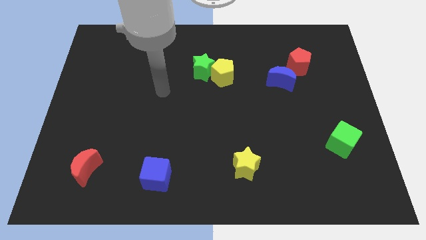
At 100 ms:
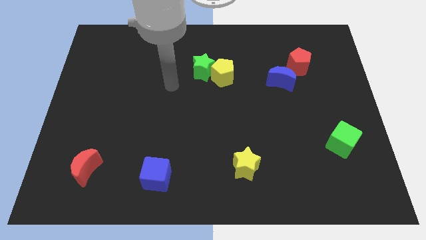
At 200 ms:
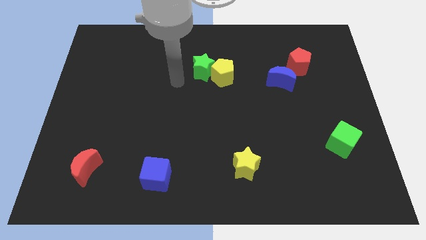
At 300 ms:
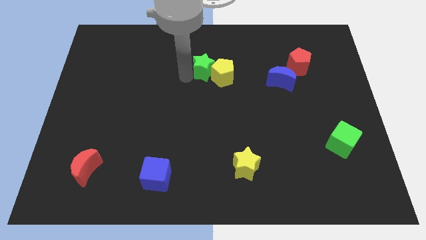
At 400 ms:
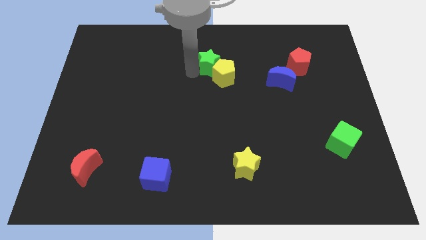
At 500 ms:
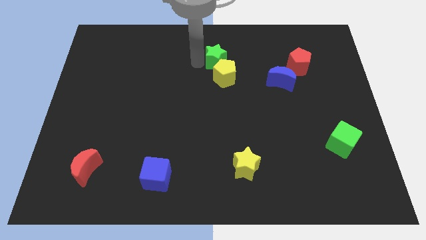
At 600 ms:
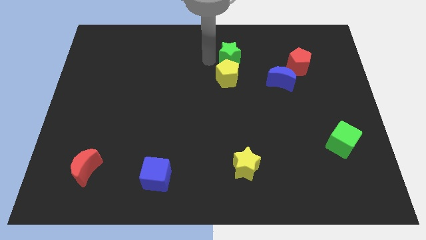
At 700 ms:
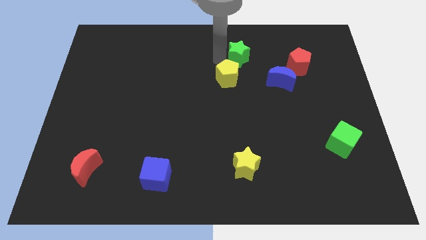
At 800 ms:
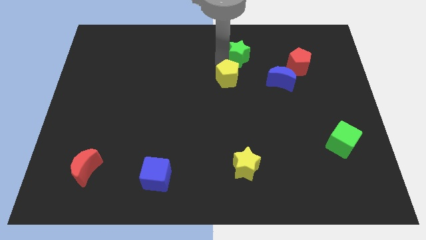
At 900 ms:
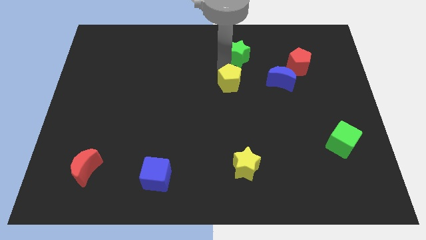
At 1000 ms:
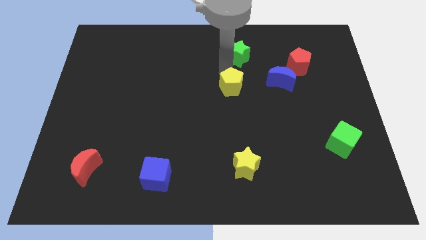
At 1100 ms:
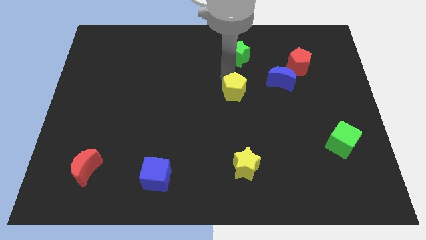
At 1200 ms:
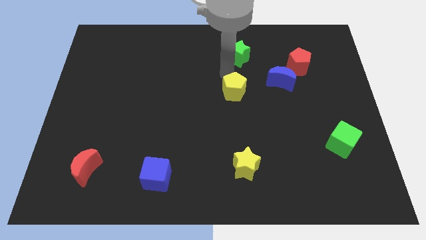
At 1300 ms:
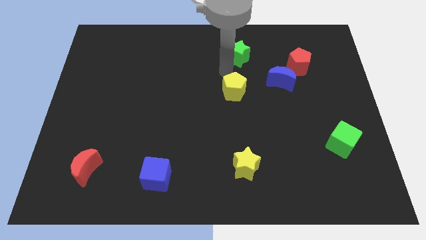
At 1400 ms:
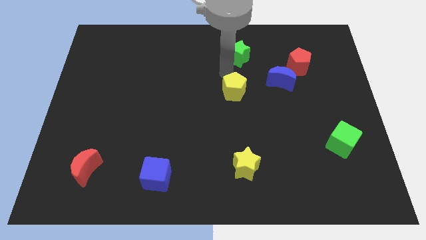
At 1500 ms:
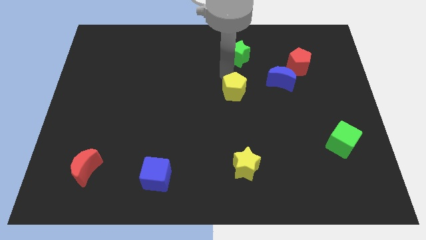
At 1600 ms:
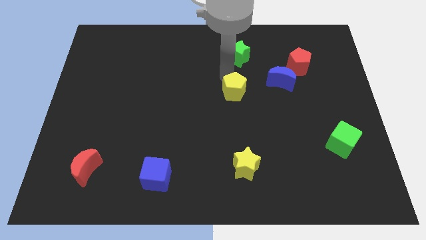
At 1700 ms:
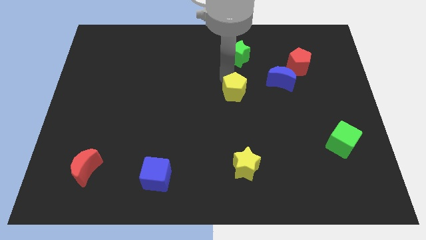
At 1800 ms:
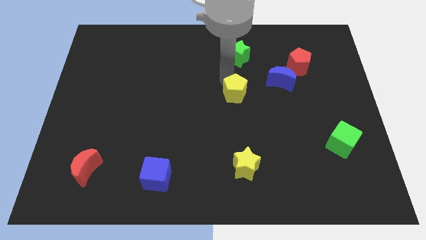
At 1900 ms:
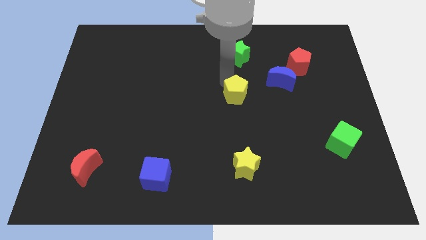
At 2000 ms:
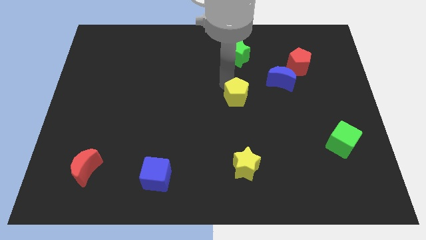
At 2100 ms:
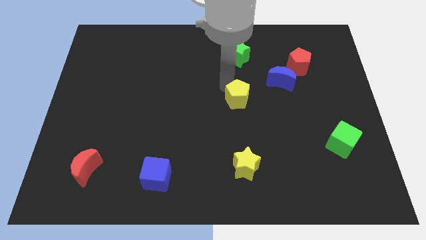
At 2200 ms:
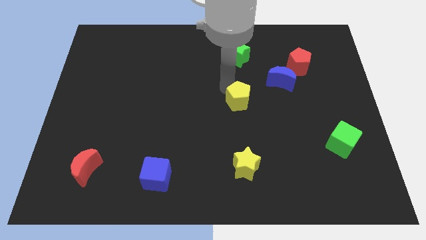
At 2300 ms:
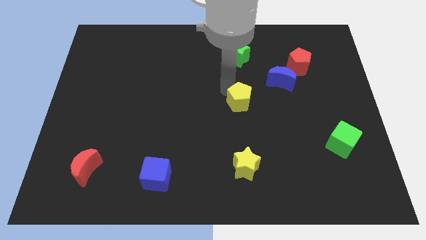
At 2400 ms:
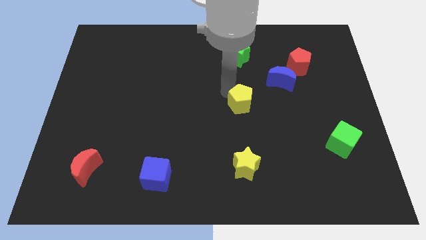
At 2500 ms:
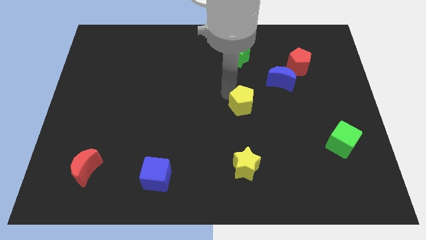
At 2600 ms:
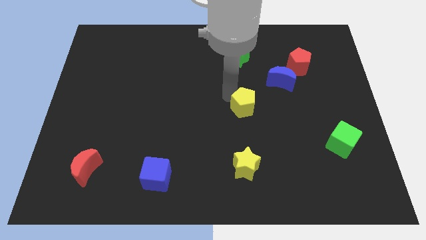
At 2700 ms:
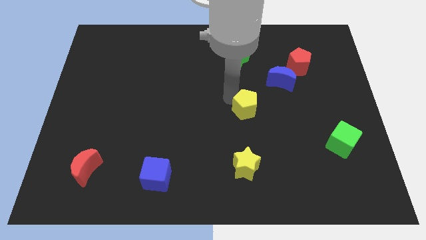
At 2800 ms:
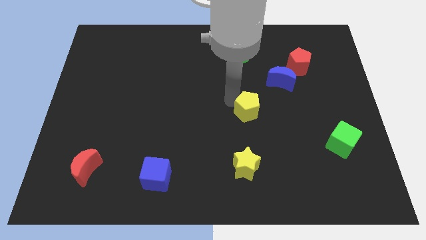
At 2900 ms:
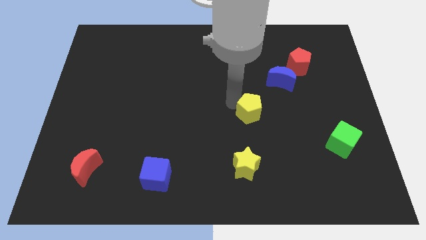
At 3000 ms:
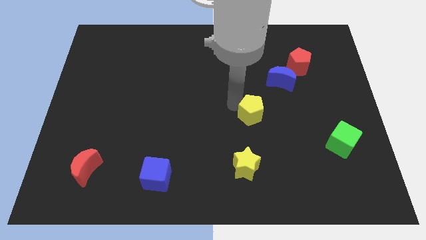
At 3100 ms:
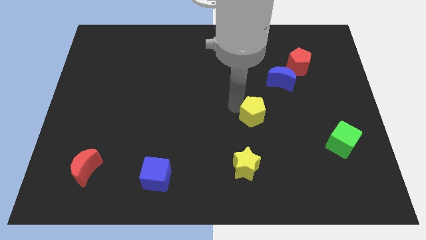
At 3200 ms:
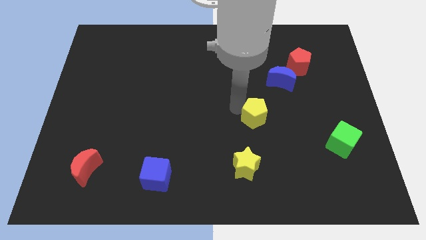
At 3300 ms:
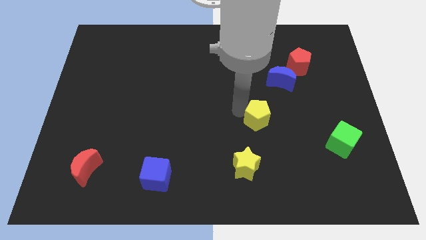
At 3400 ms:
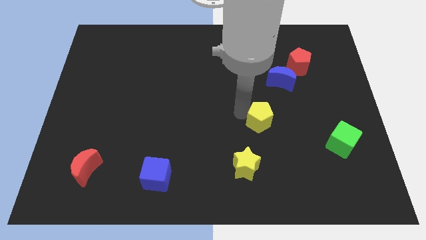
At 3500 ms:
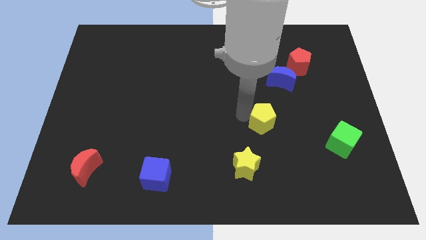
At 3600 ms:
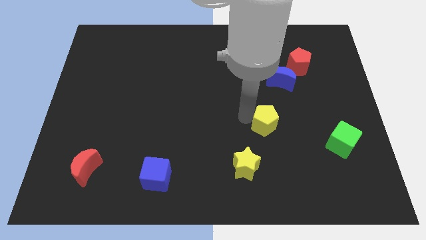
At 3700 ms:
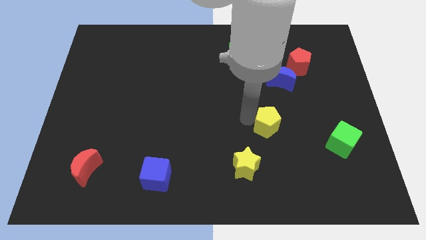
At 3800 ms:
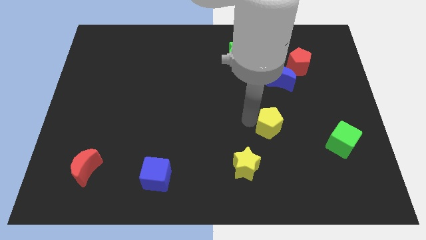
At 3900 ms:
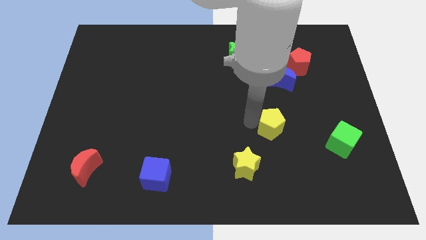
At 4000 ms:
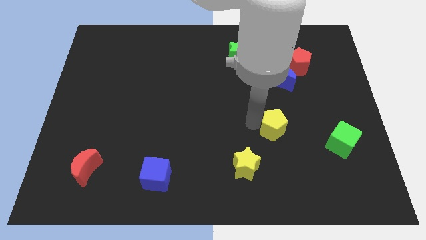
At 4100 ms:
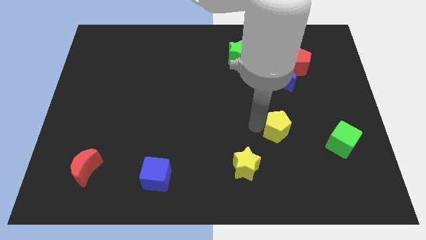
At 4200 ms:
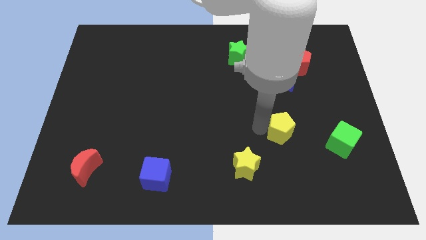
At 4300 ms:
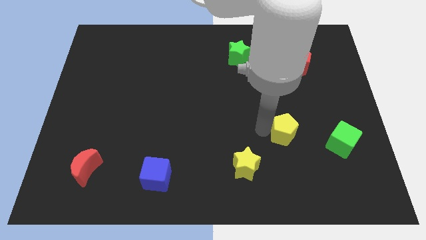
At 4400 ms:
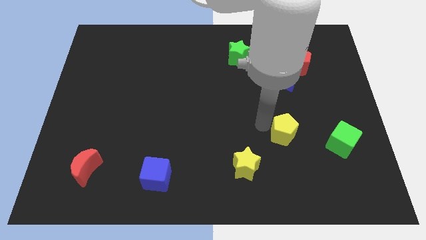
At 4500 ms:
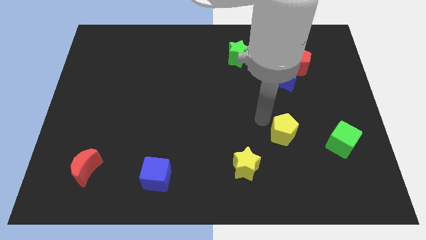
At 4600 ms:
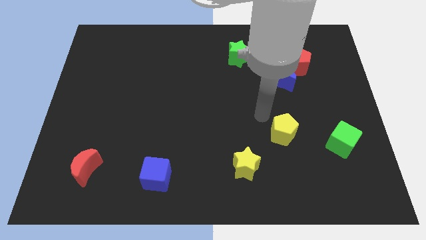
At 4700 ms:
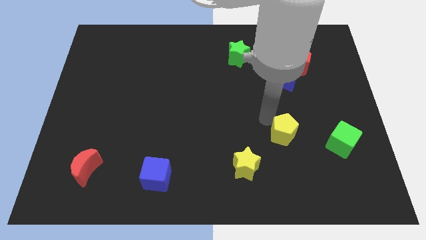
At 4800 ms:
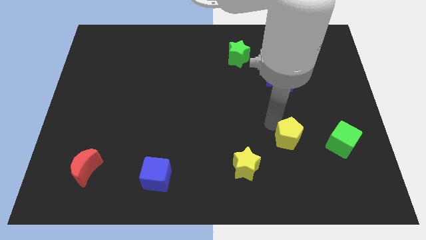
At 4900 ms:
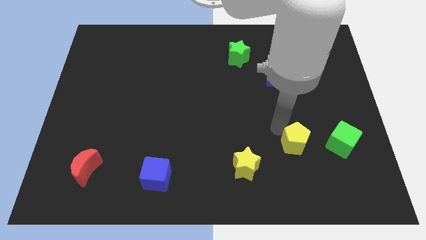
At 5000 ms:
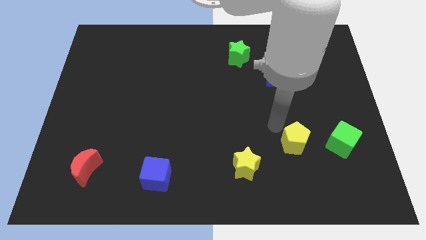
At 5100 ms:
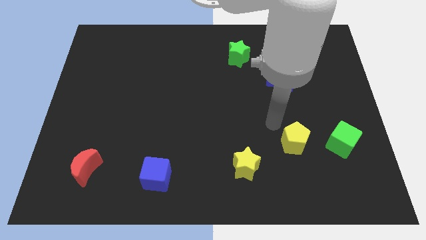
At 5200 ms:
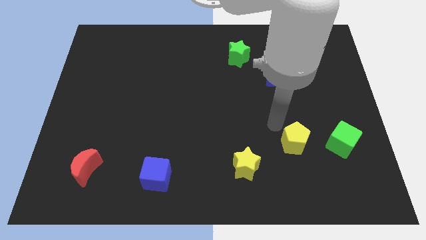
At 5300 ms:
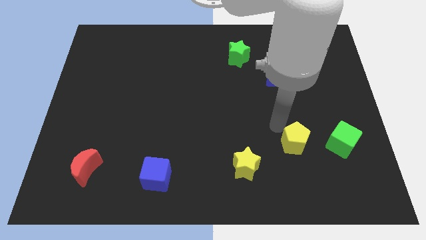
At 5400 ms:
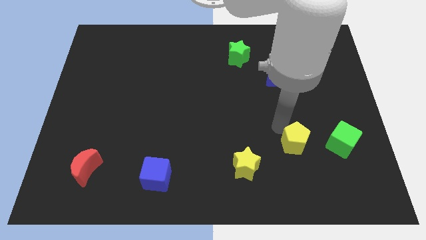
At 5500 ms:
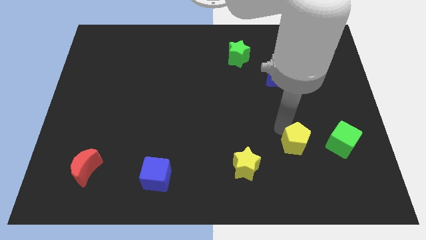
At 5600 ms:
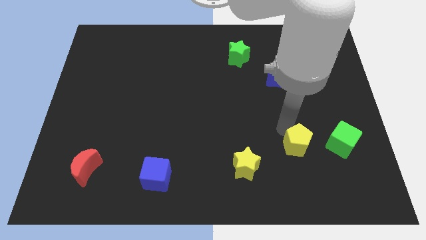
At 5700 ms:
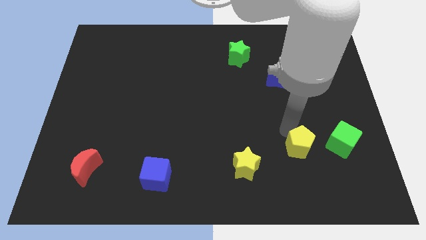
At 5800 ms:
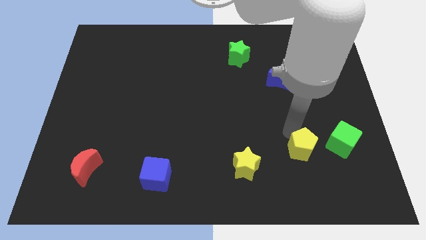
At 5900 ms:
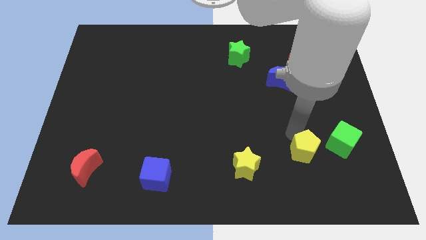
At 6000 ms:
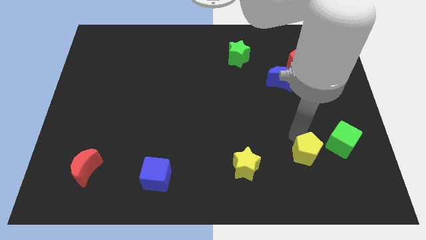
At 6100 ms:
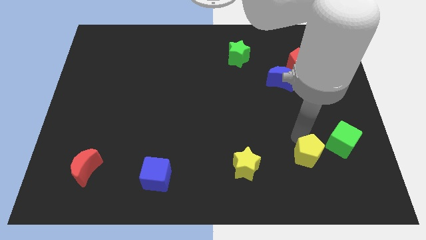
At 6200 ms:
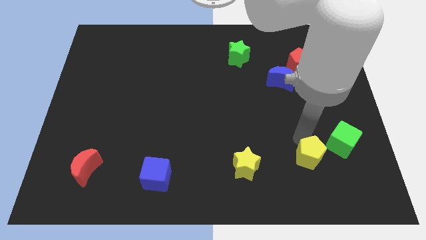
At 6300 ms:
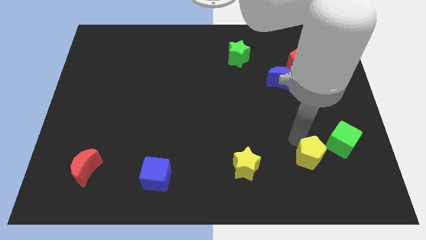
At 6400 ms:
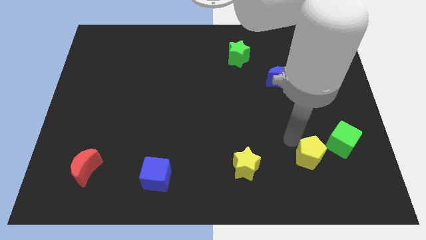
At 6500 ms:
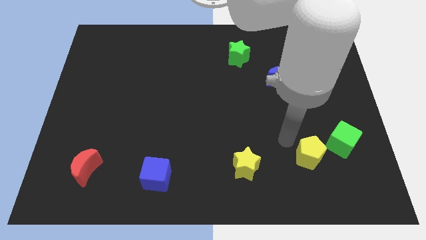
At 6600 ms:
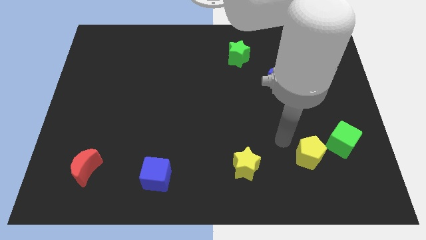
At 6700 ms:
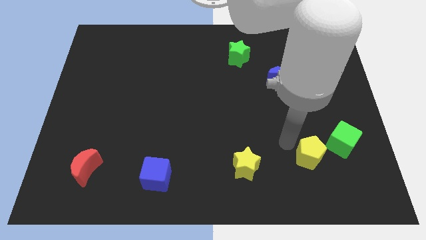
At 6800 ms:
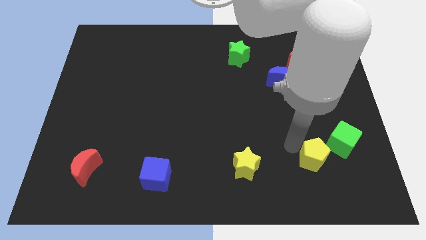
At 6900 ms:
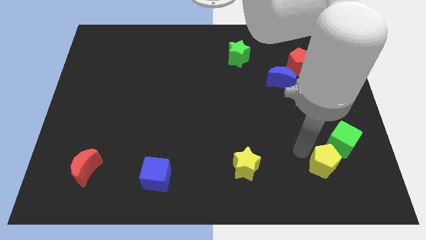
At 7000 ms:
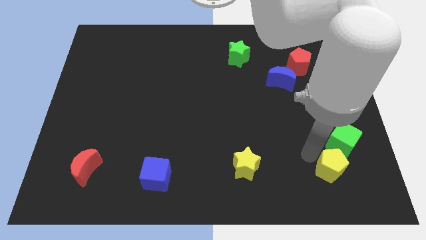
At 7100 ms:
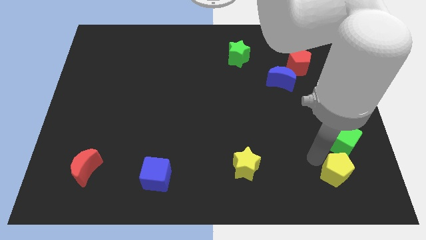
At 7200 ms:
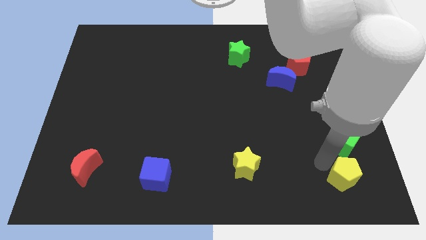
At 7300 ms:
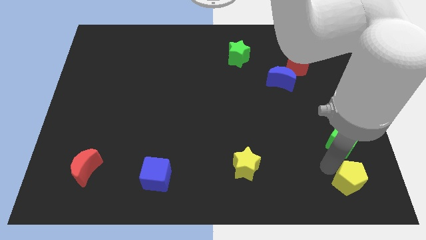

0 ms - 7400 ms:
move the yellow pentagon to the bottom right of the board
